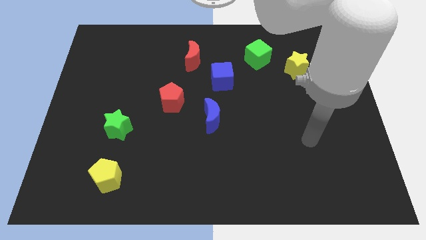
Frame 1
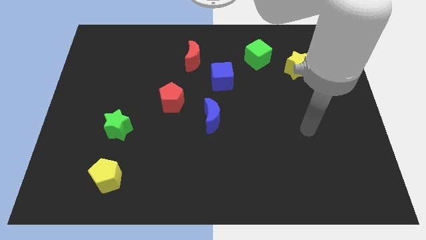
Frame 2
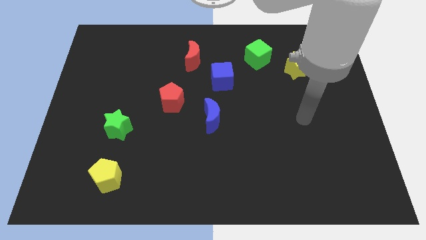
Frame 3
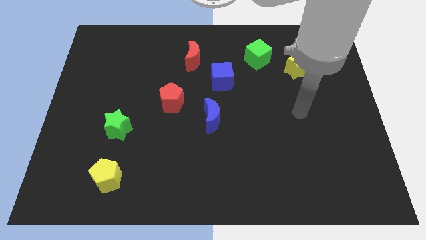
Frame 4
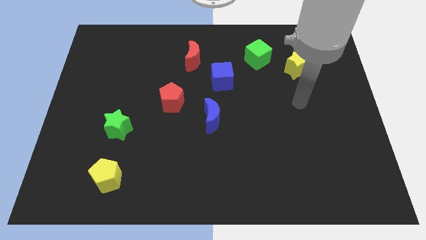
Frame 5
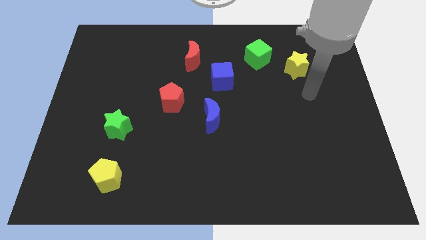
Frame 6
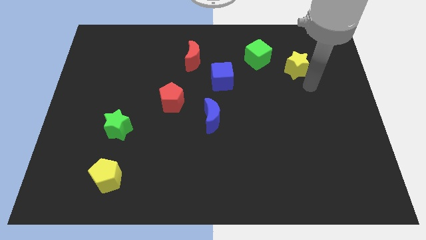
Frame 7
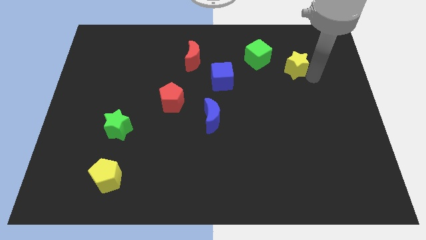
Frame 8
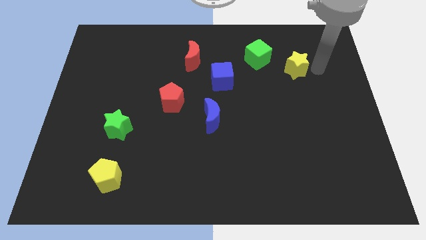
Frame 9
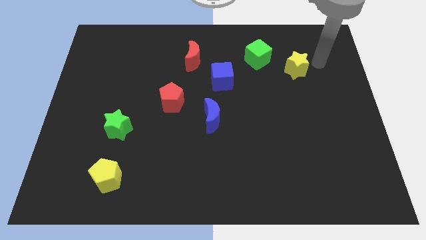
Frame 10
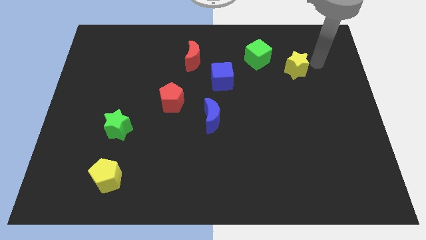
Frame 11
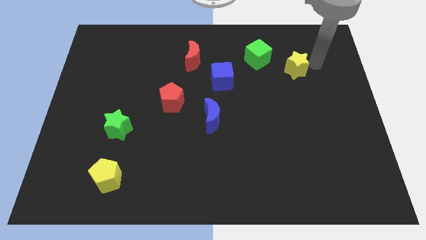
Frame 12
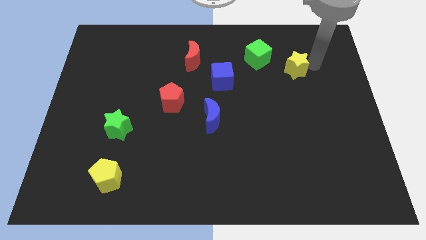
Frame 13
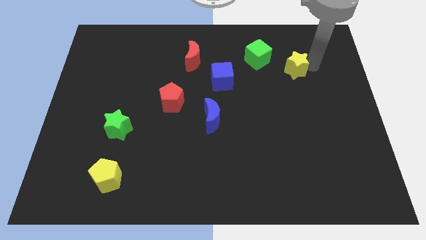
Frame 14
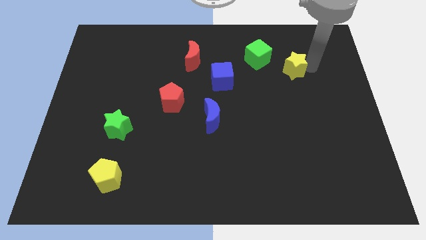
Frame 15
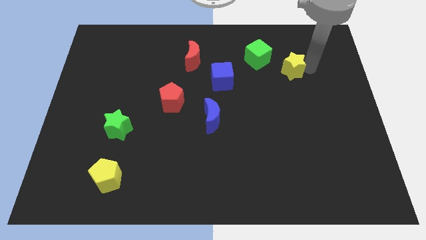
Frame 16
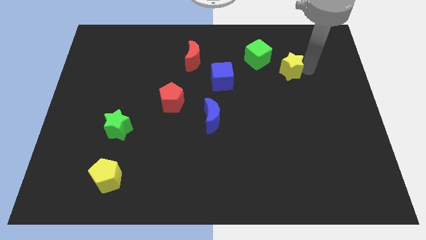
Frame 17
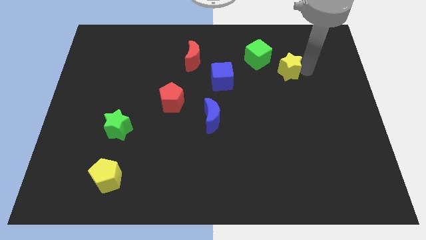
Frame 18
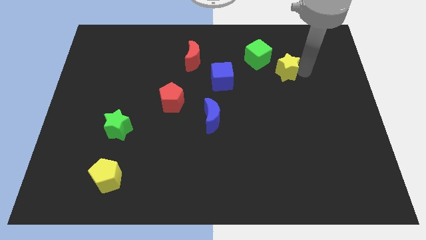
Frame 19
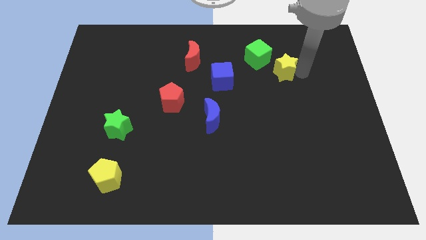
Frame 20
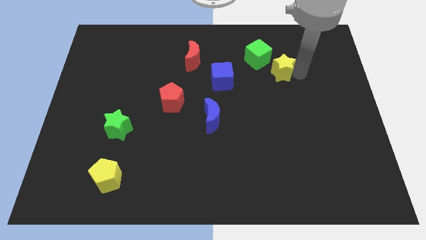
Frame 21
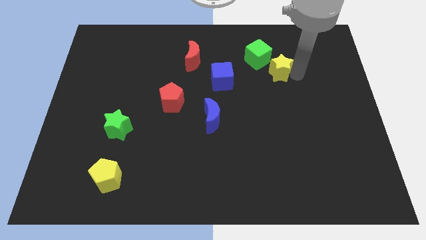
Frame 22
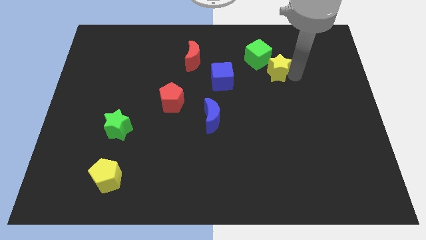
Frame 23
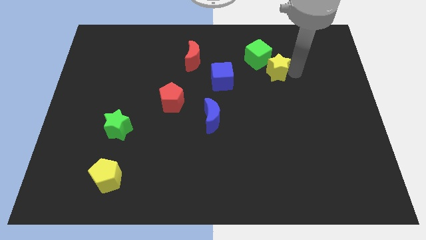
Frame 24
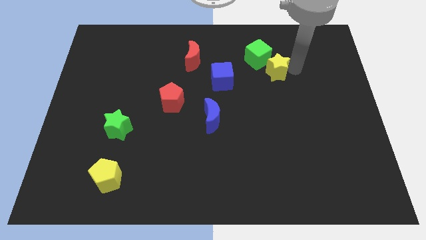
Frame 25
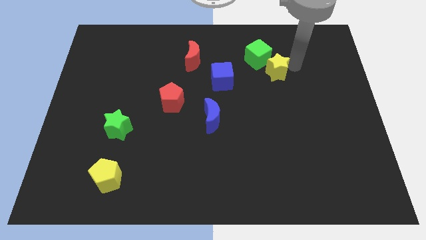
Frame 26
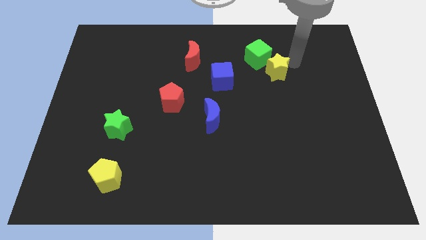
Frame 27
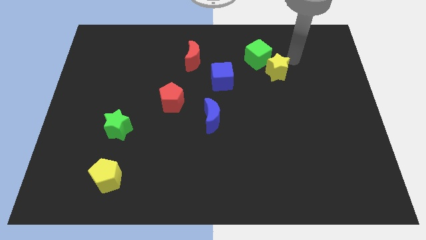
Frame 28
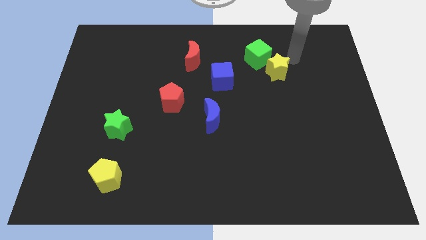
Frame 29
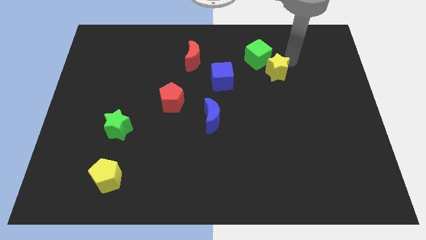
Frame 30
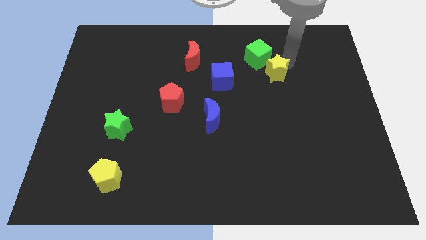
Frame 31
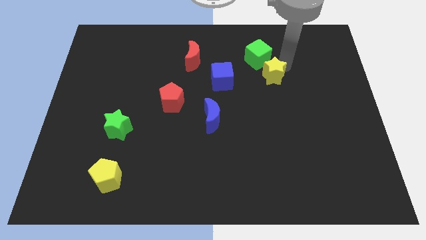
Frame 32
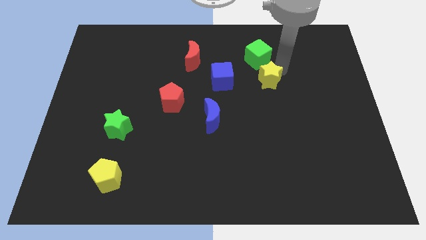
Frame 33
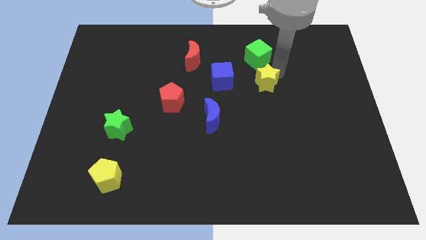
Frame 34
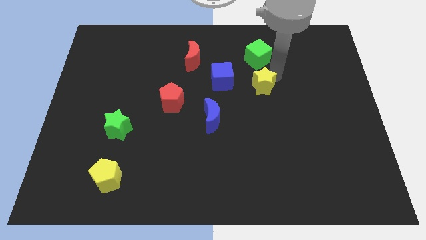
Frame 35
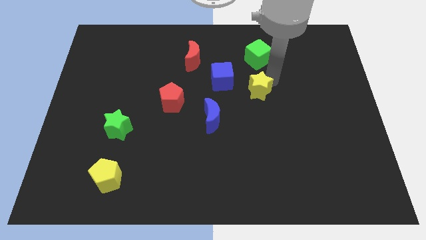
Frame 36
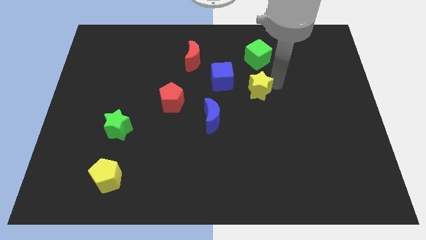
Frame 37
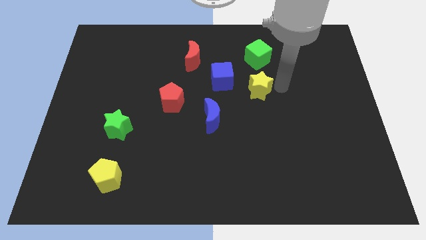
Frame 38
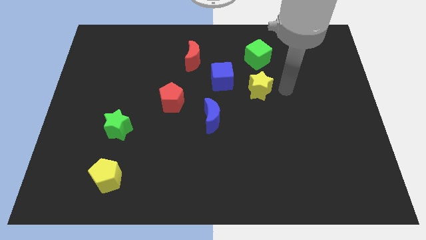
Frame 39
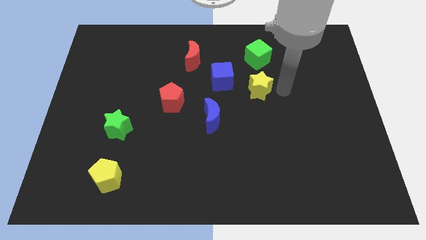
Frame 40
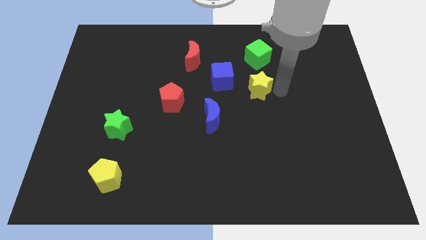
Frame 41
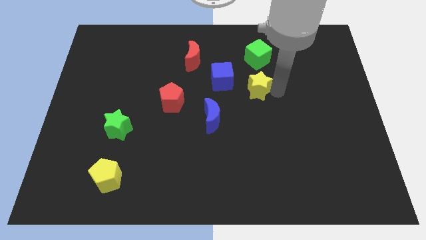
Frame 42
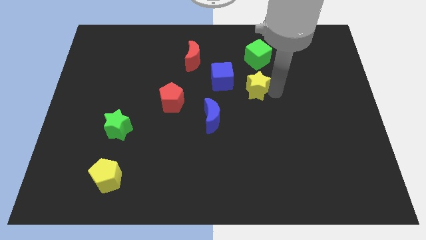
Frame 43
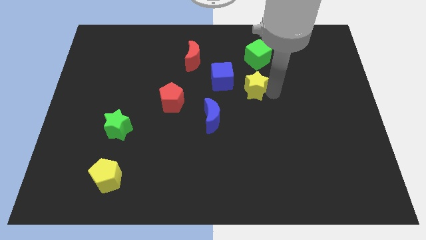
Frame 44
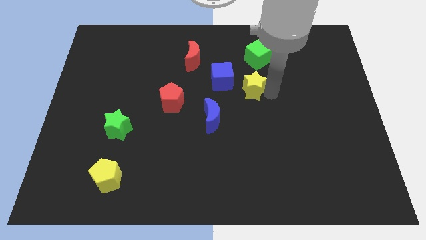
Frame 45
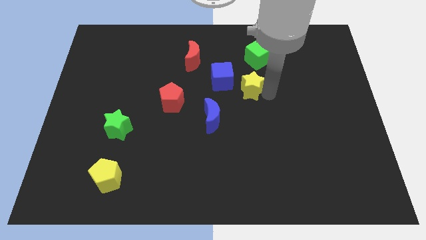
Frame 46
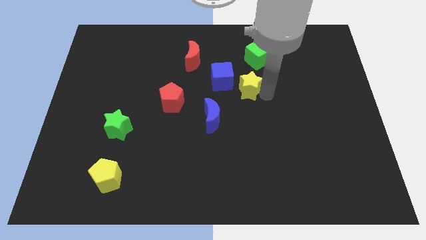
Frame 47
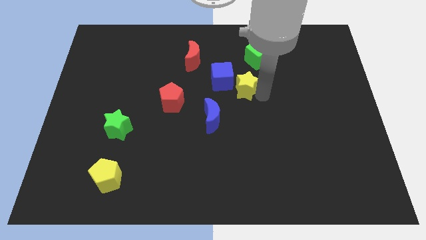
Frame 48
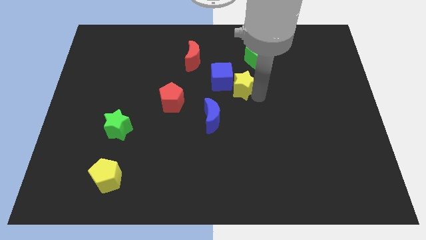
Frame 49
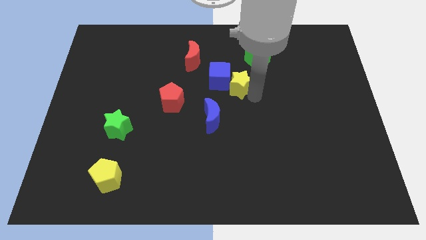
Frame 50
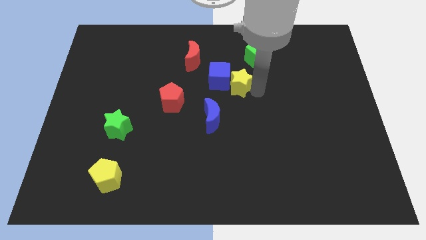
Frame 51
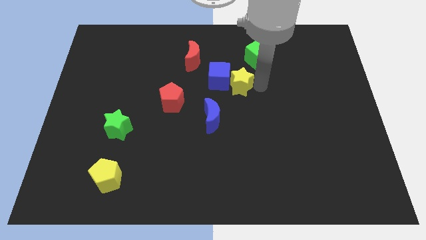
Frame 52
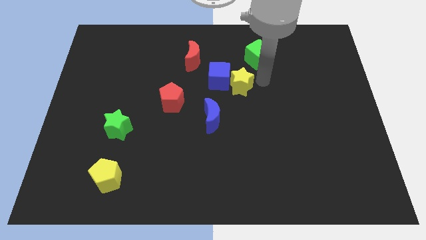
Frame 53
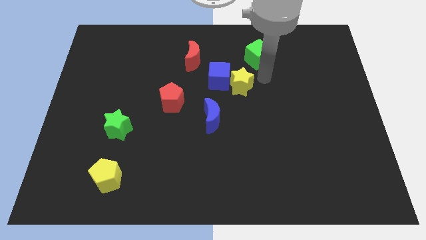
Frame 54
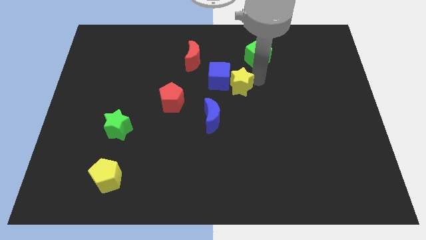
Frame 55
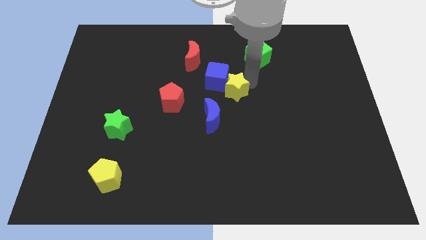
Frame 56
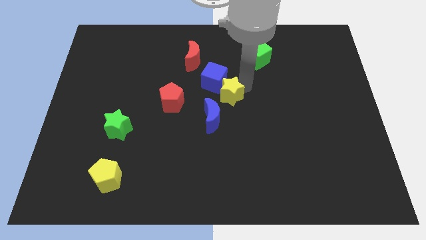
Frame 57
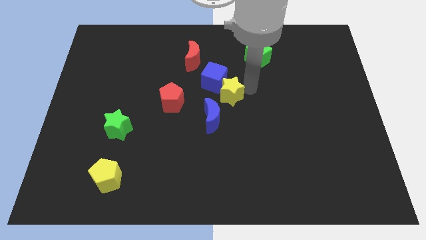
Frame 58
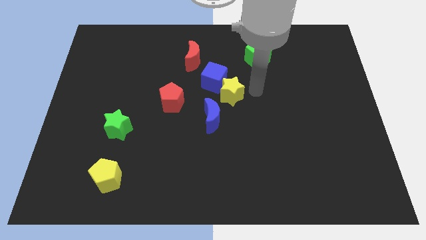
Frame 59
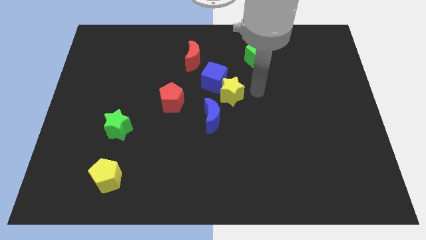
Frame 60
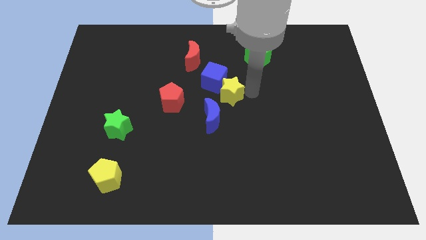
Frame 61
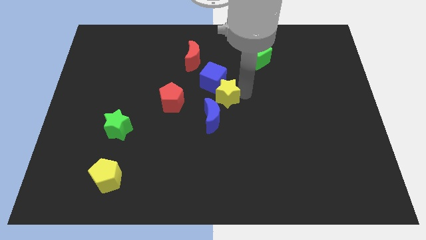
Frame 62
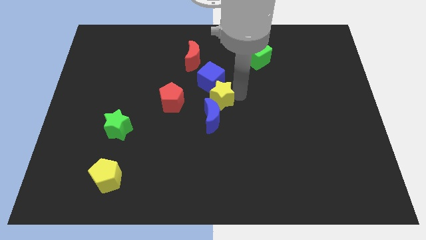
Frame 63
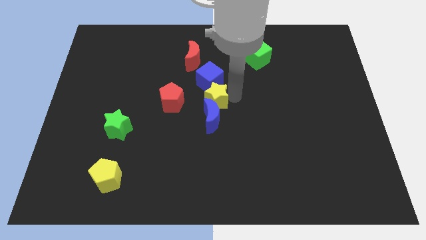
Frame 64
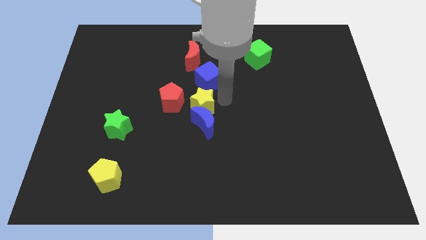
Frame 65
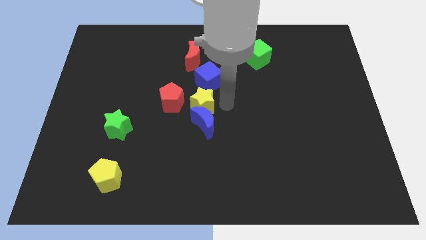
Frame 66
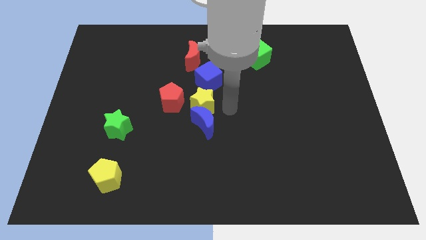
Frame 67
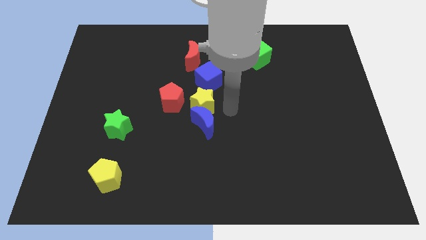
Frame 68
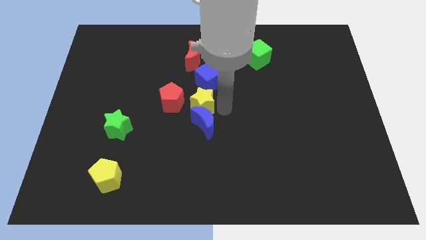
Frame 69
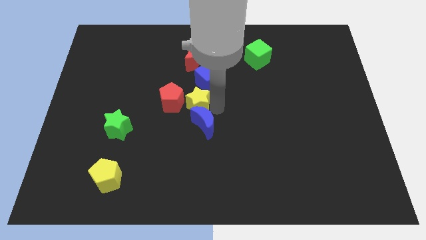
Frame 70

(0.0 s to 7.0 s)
slide the yellow star to the red pentagon
